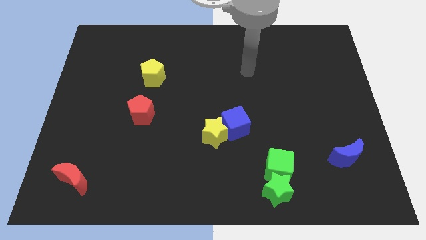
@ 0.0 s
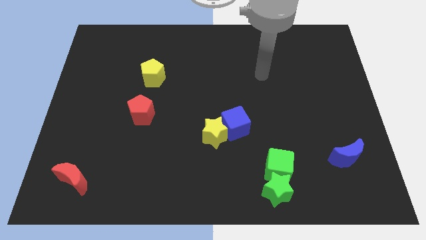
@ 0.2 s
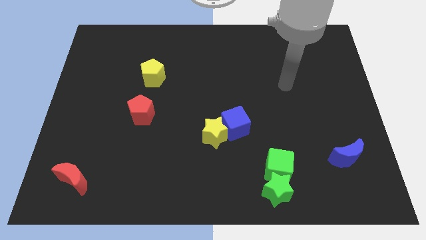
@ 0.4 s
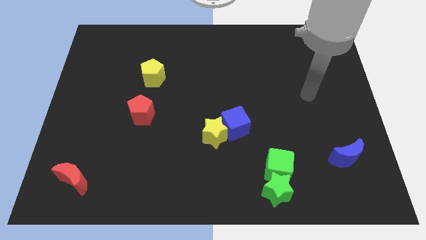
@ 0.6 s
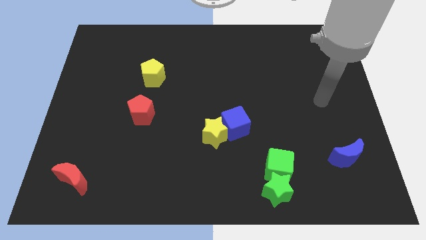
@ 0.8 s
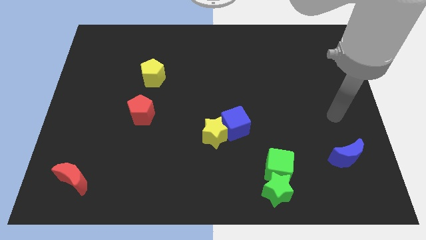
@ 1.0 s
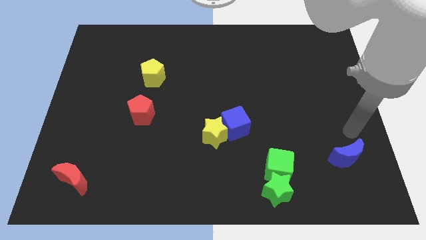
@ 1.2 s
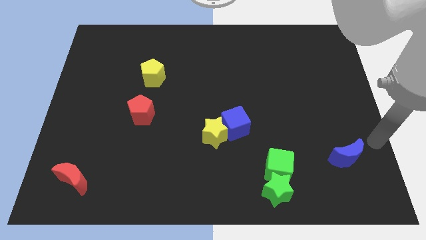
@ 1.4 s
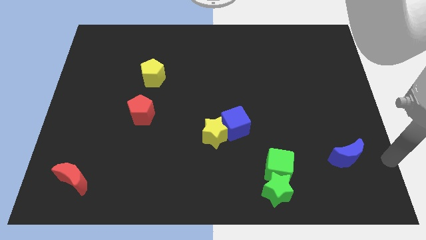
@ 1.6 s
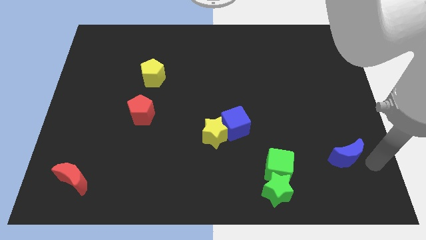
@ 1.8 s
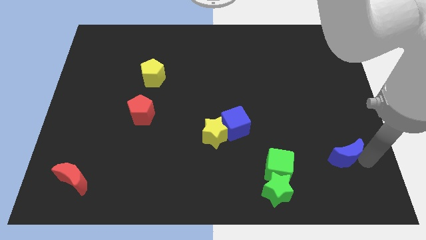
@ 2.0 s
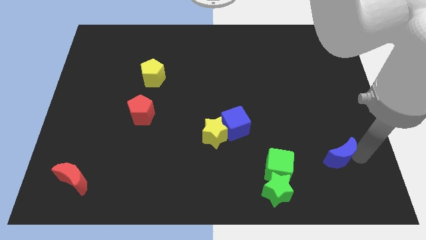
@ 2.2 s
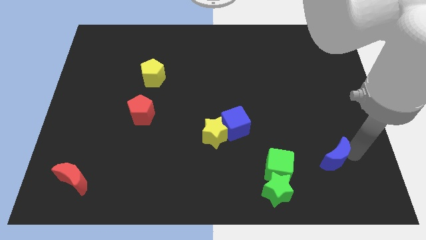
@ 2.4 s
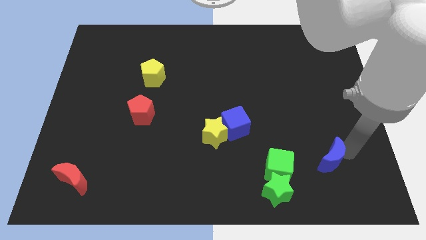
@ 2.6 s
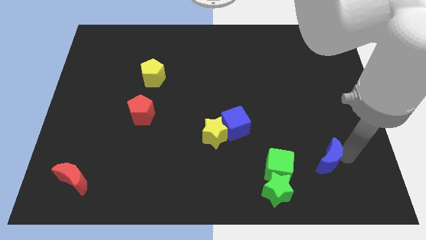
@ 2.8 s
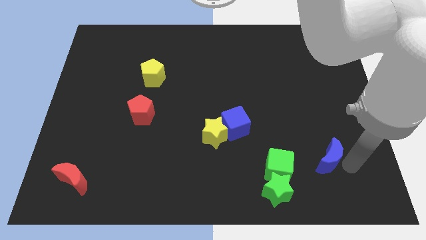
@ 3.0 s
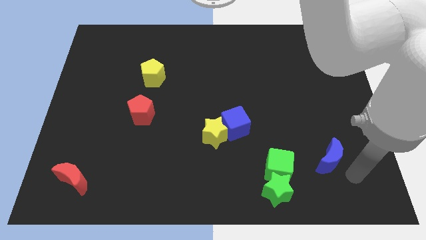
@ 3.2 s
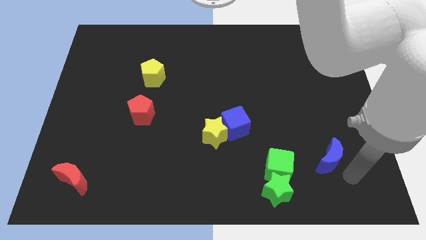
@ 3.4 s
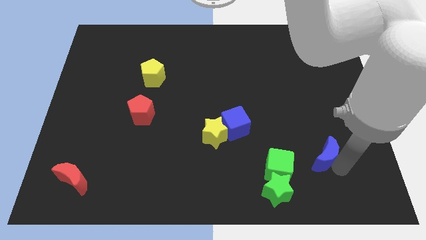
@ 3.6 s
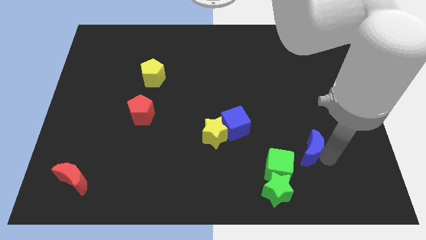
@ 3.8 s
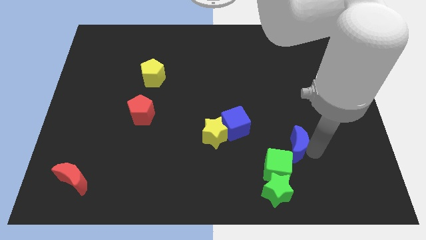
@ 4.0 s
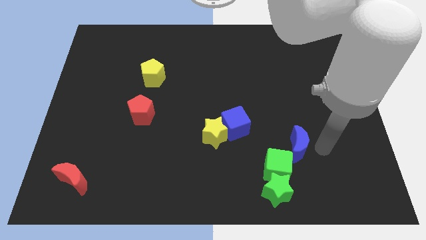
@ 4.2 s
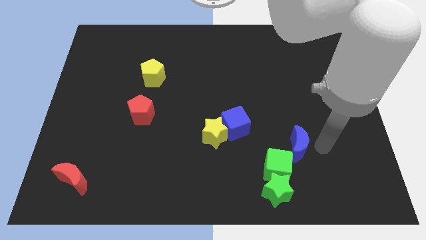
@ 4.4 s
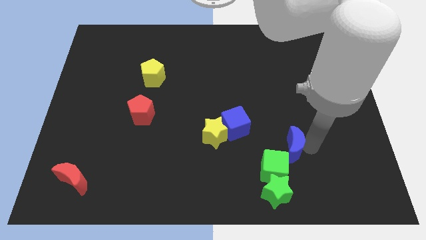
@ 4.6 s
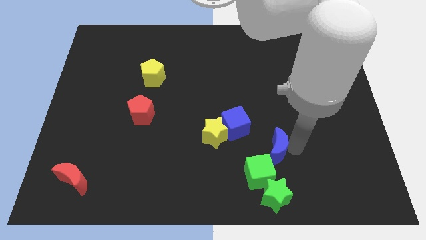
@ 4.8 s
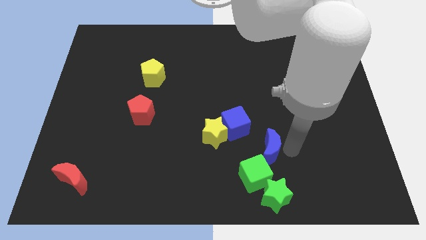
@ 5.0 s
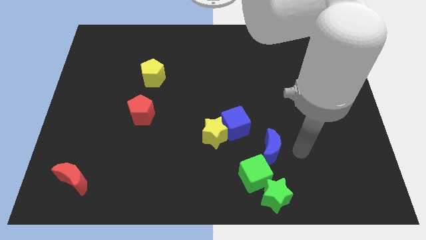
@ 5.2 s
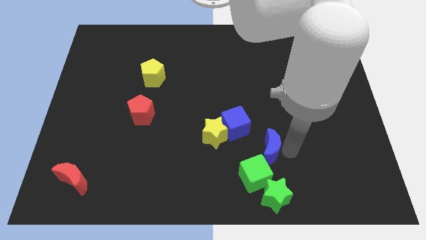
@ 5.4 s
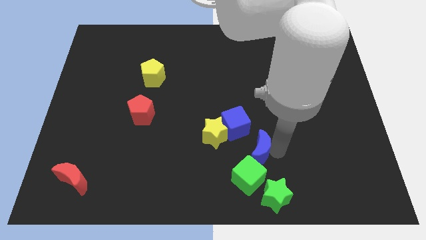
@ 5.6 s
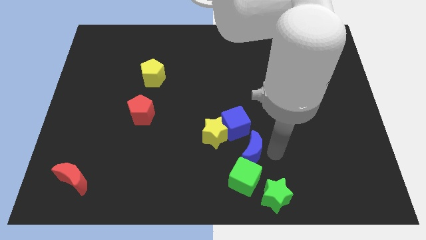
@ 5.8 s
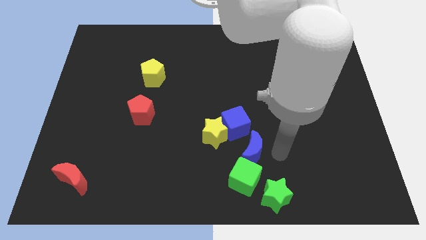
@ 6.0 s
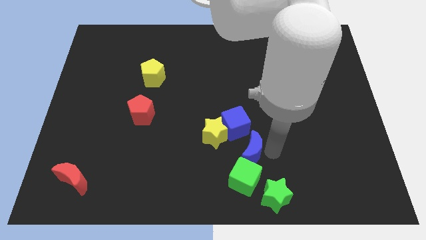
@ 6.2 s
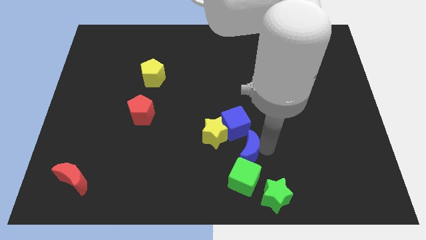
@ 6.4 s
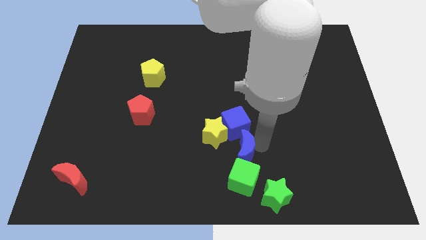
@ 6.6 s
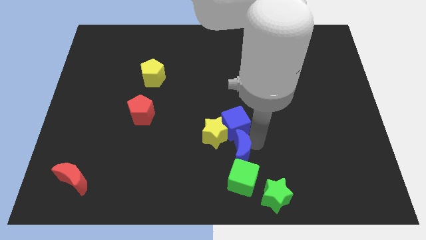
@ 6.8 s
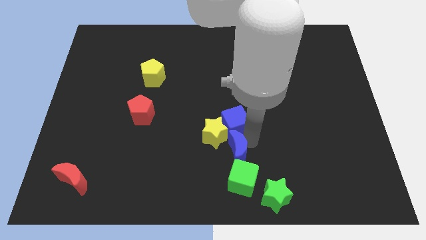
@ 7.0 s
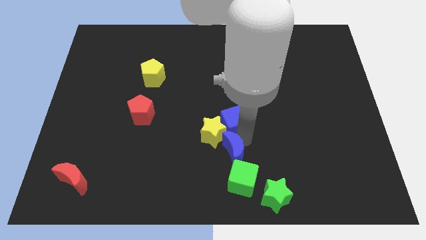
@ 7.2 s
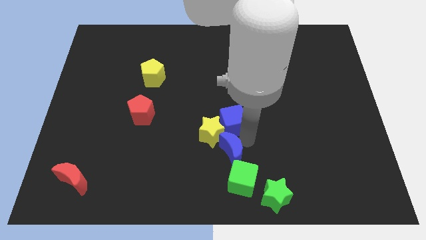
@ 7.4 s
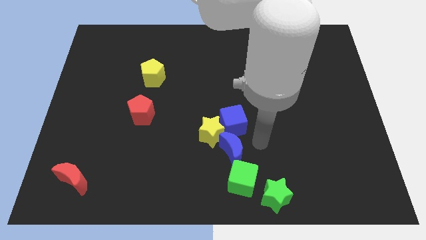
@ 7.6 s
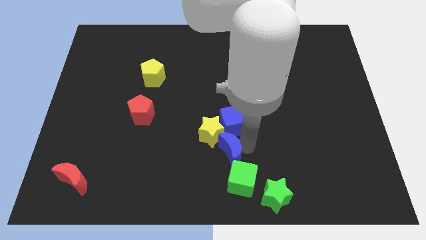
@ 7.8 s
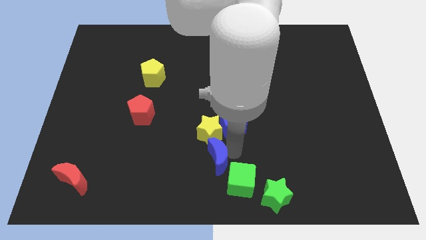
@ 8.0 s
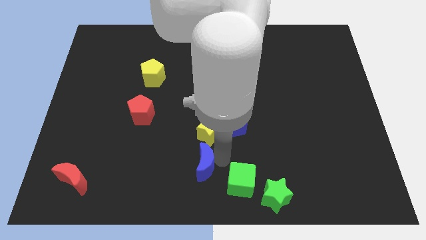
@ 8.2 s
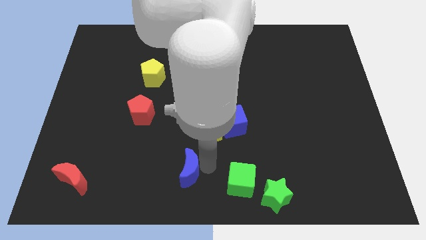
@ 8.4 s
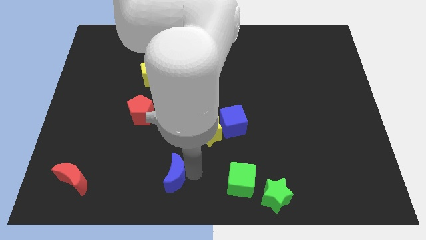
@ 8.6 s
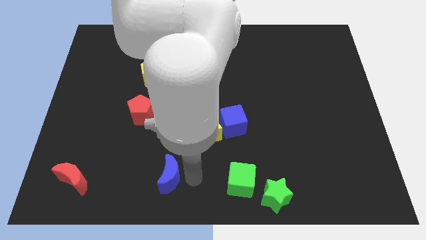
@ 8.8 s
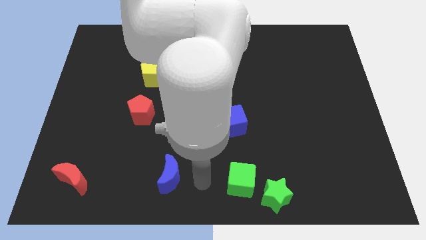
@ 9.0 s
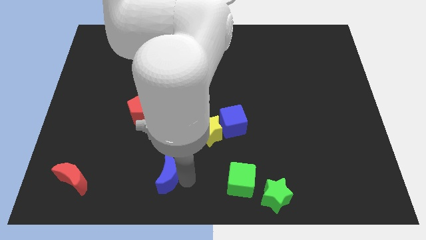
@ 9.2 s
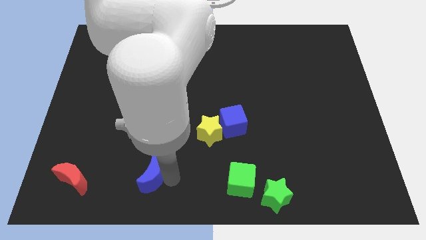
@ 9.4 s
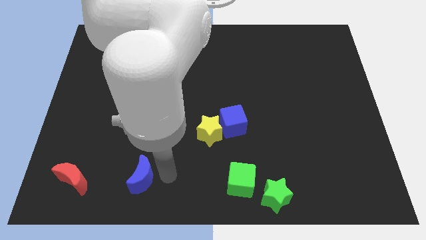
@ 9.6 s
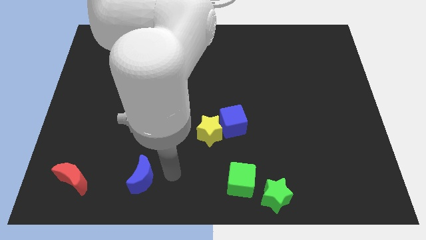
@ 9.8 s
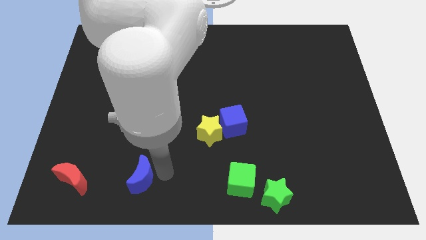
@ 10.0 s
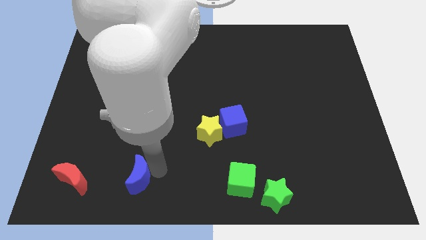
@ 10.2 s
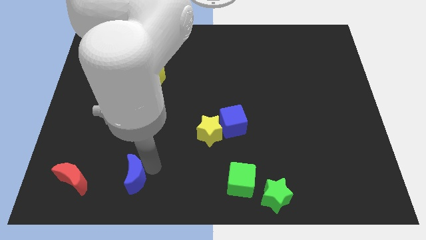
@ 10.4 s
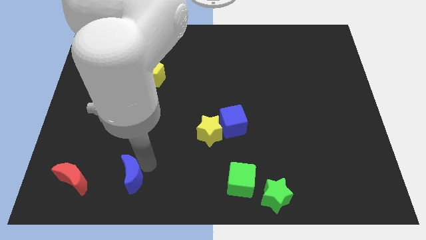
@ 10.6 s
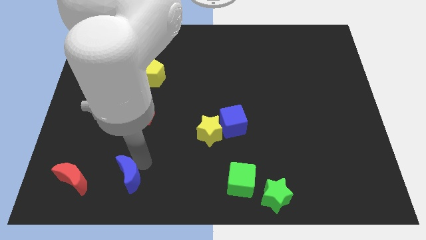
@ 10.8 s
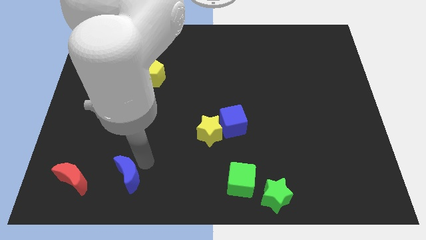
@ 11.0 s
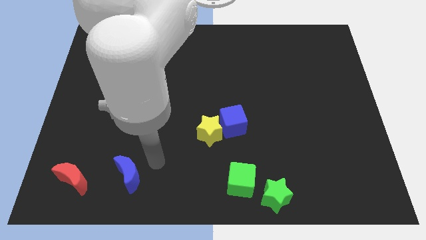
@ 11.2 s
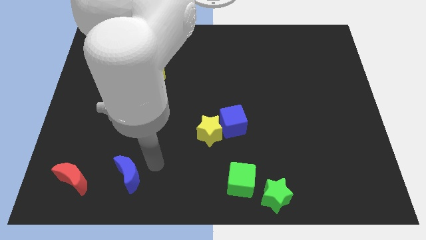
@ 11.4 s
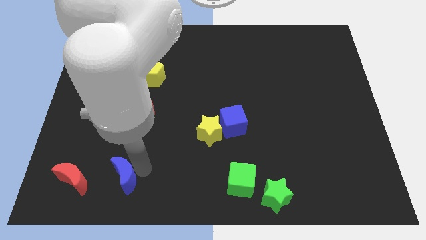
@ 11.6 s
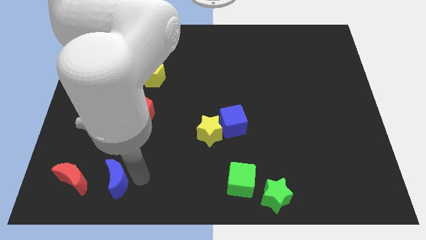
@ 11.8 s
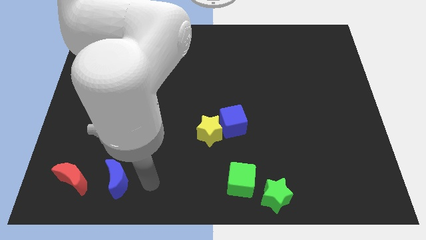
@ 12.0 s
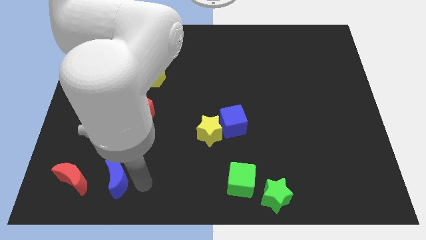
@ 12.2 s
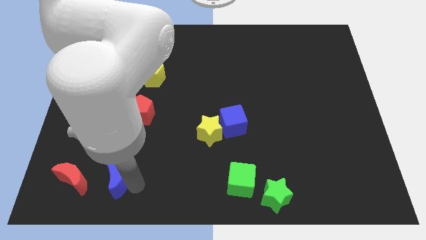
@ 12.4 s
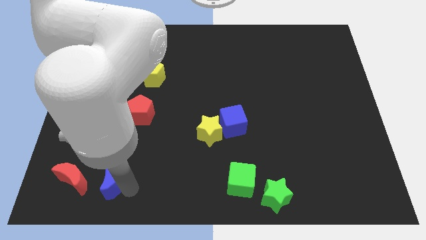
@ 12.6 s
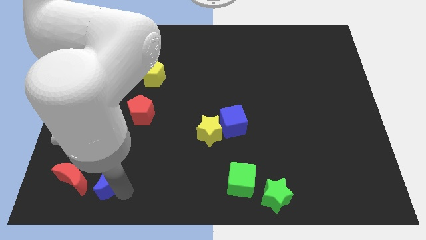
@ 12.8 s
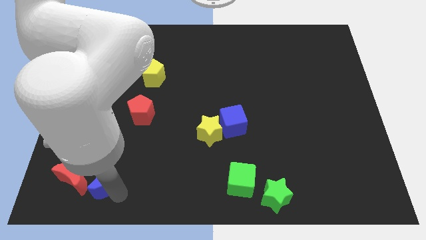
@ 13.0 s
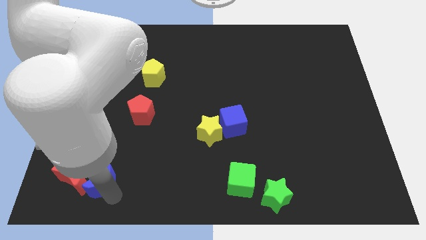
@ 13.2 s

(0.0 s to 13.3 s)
slide the blue moon to the red moon

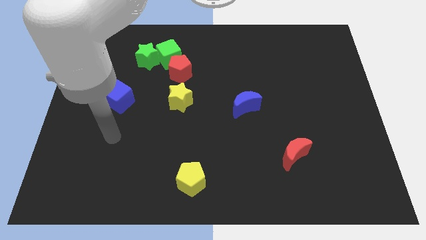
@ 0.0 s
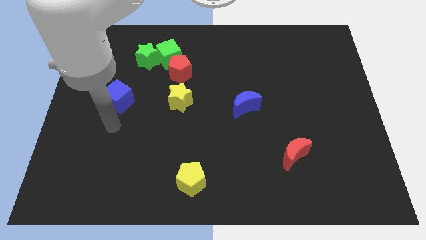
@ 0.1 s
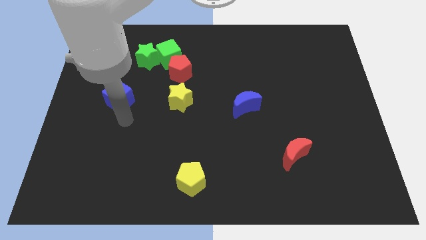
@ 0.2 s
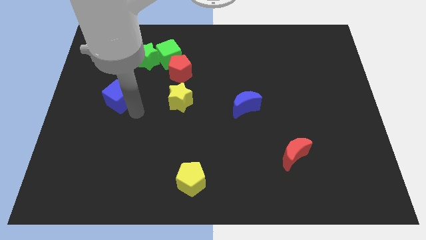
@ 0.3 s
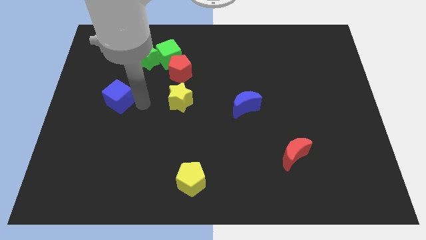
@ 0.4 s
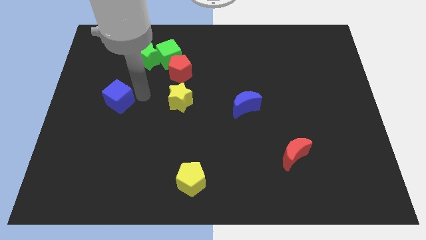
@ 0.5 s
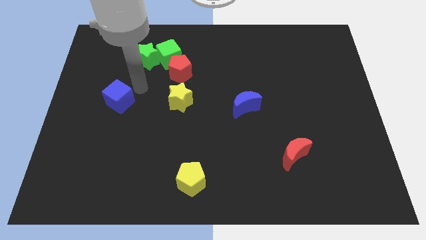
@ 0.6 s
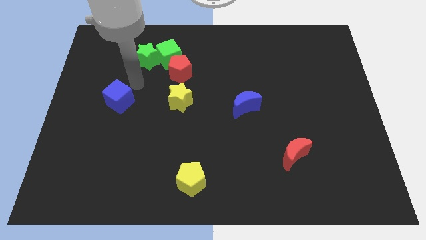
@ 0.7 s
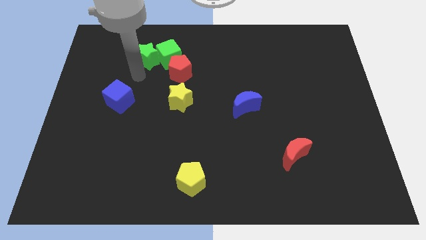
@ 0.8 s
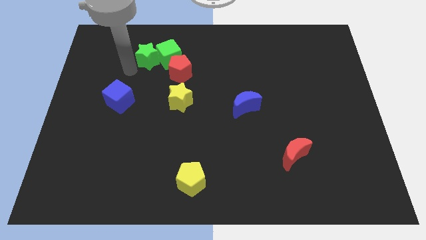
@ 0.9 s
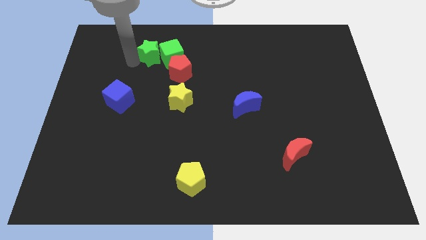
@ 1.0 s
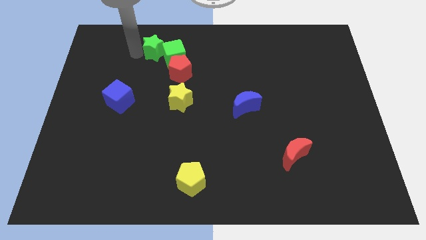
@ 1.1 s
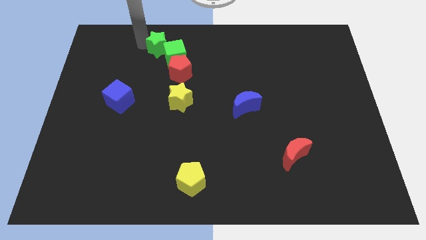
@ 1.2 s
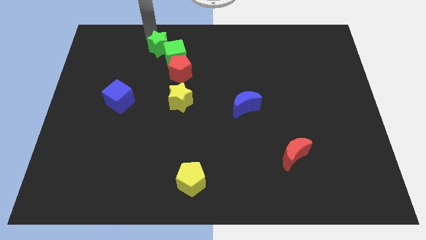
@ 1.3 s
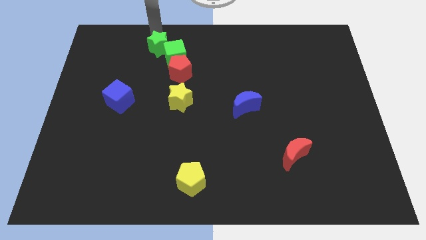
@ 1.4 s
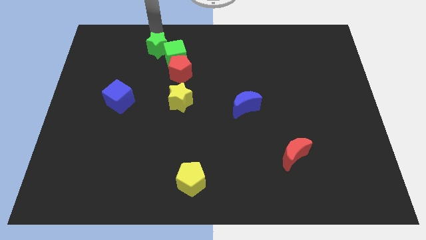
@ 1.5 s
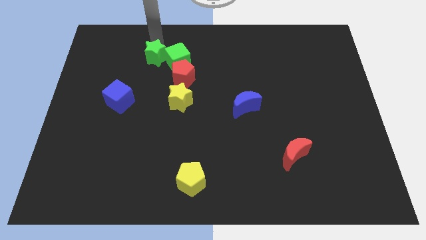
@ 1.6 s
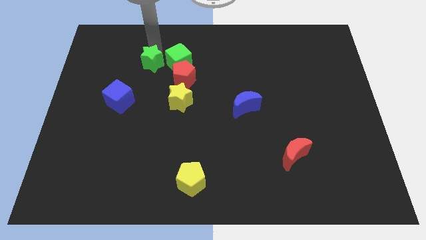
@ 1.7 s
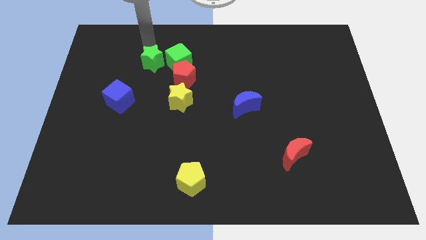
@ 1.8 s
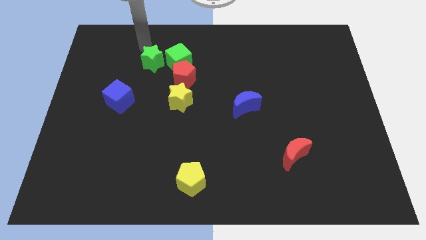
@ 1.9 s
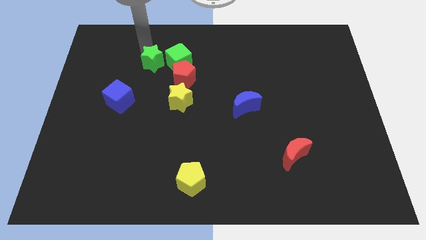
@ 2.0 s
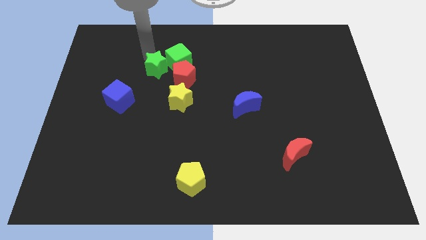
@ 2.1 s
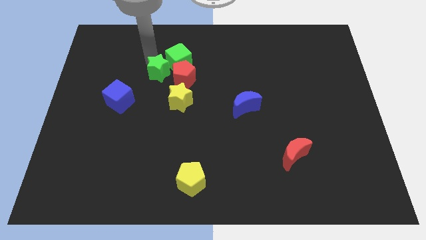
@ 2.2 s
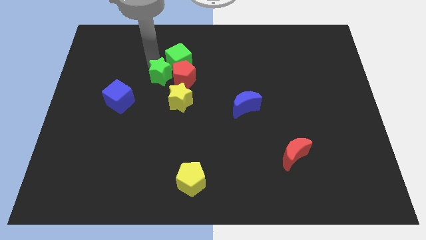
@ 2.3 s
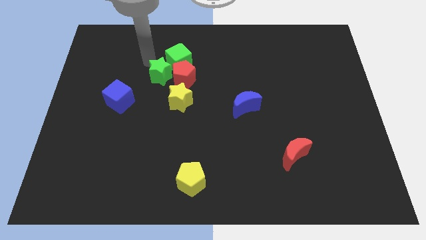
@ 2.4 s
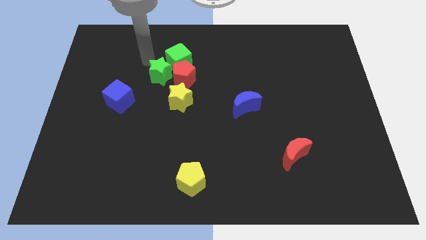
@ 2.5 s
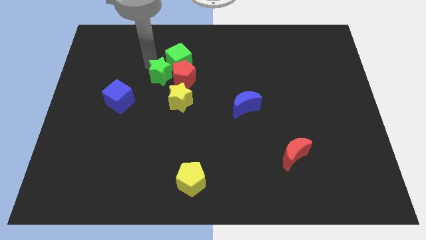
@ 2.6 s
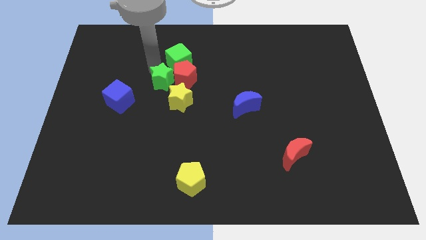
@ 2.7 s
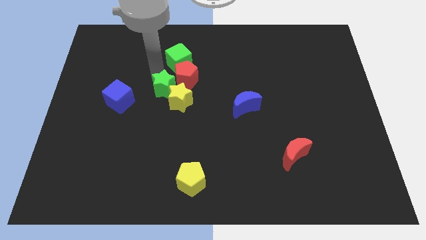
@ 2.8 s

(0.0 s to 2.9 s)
put the green star next to the yellow star
